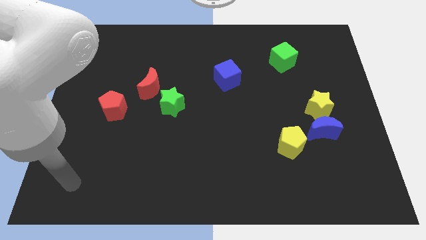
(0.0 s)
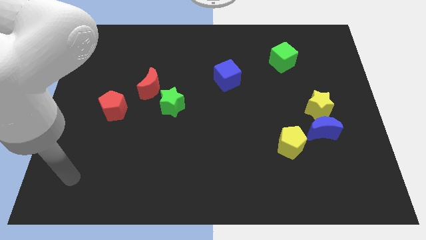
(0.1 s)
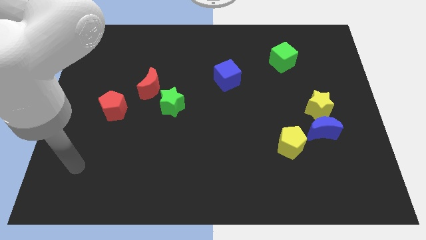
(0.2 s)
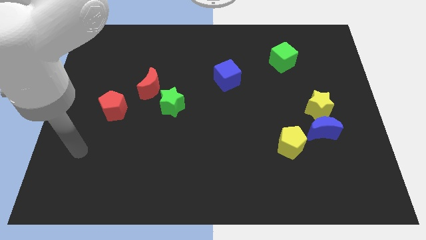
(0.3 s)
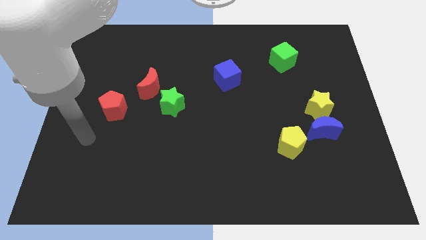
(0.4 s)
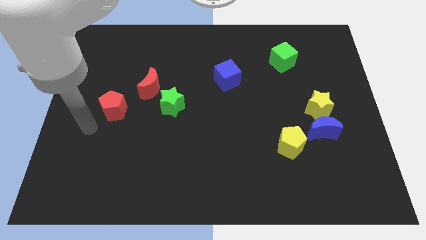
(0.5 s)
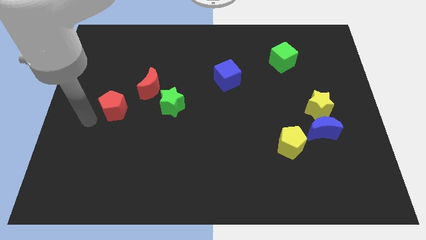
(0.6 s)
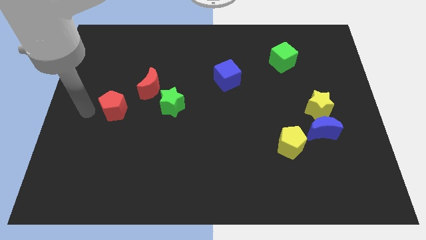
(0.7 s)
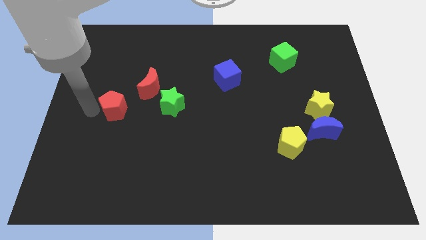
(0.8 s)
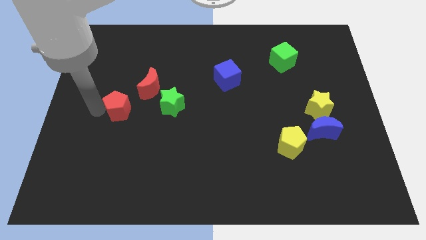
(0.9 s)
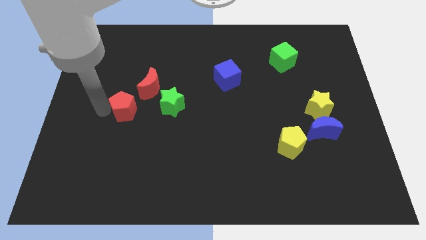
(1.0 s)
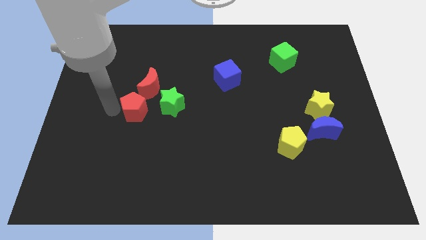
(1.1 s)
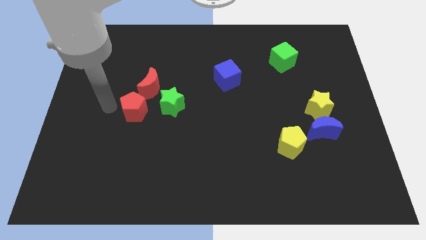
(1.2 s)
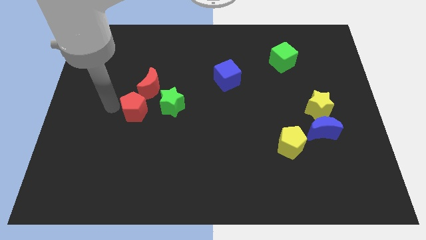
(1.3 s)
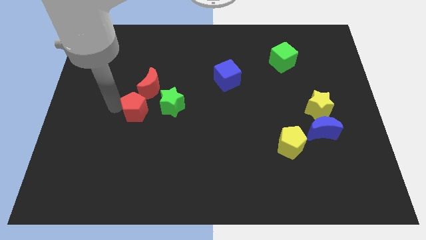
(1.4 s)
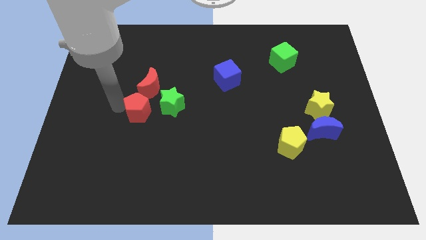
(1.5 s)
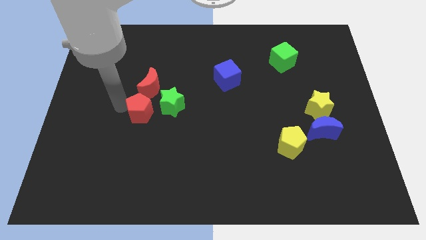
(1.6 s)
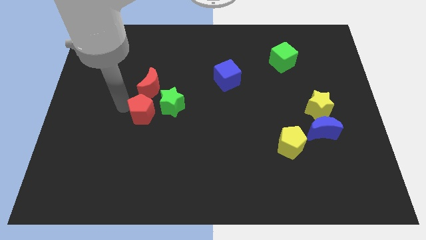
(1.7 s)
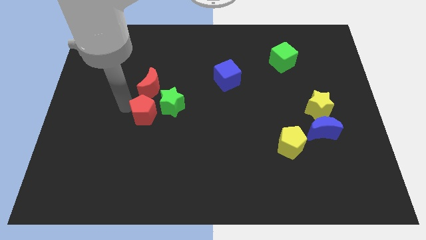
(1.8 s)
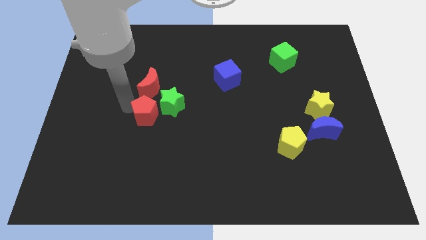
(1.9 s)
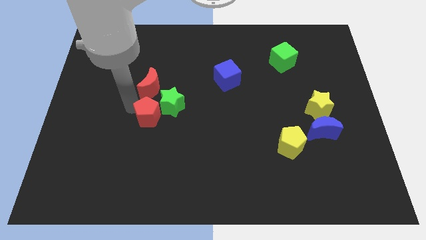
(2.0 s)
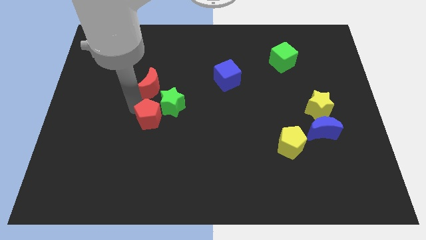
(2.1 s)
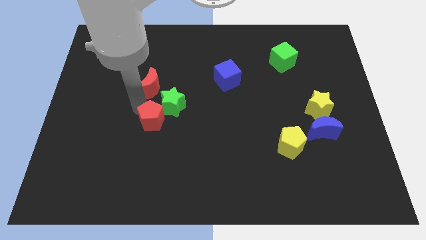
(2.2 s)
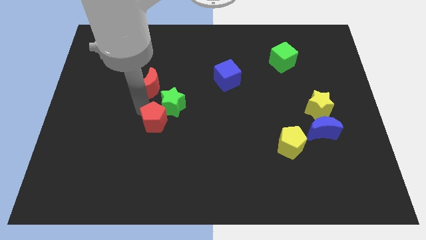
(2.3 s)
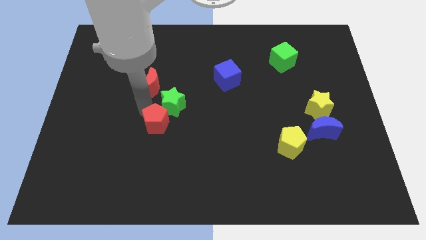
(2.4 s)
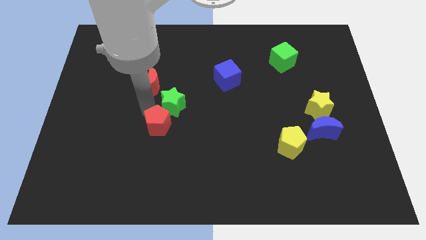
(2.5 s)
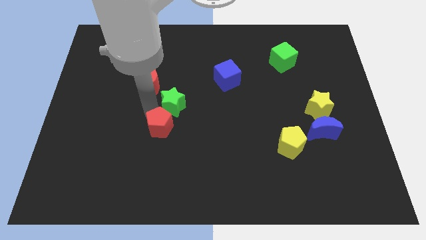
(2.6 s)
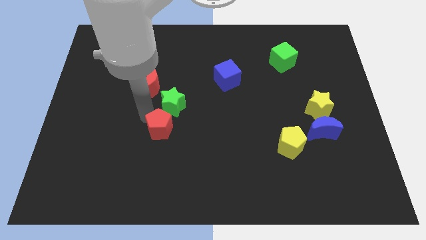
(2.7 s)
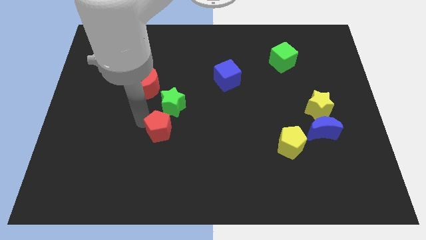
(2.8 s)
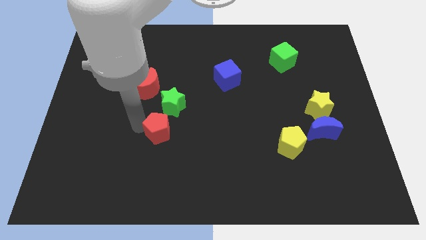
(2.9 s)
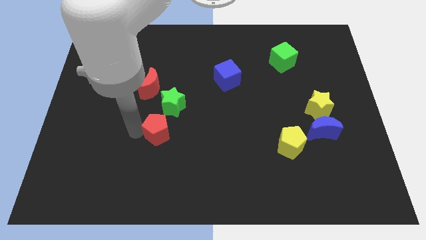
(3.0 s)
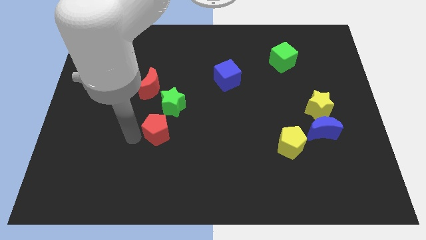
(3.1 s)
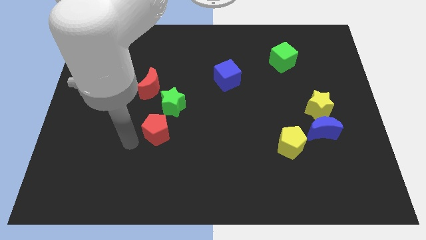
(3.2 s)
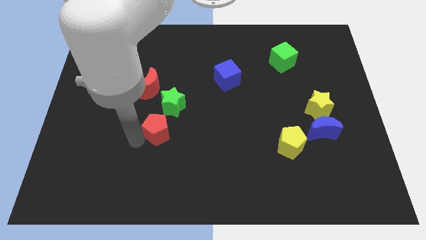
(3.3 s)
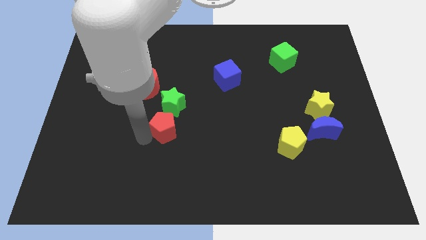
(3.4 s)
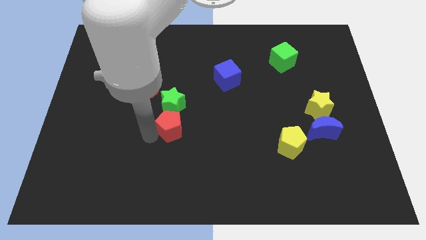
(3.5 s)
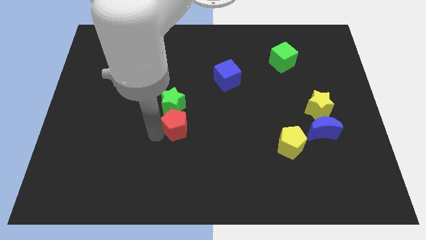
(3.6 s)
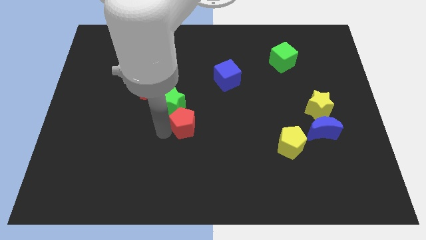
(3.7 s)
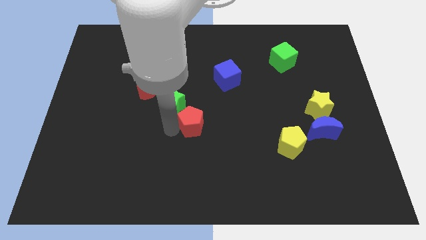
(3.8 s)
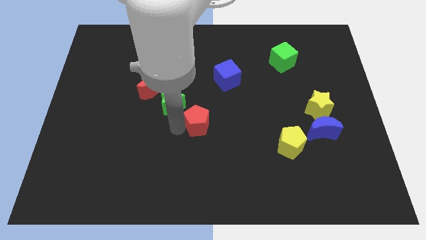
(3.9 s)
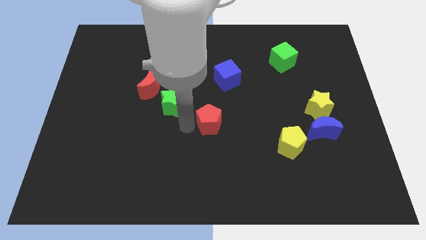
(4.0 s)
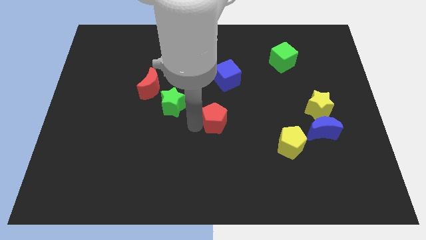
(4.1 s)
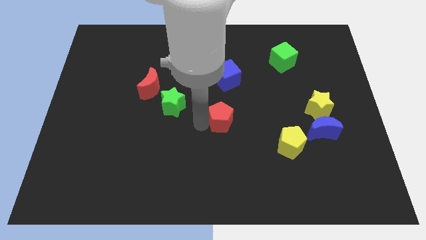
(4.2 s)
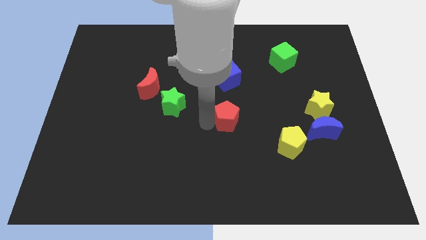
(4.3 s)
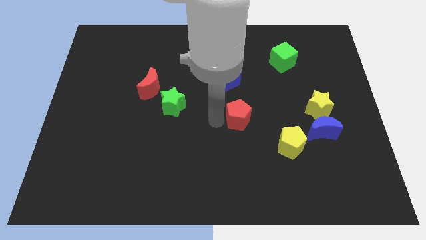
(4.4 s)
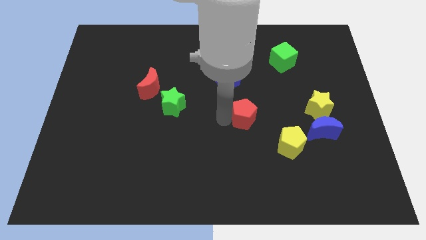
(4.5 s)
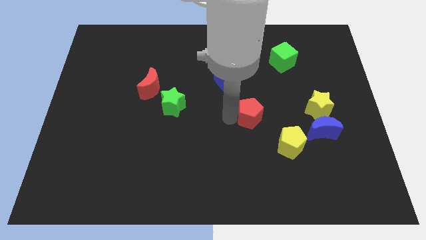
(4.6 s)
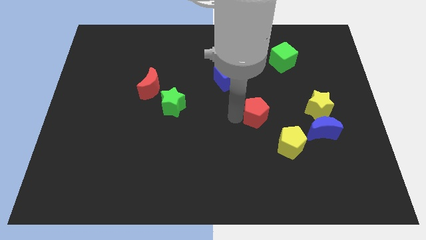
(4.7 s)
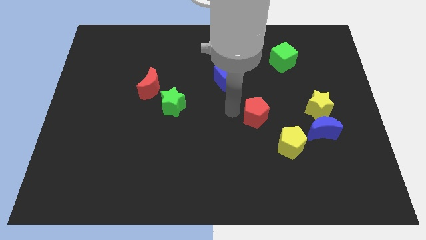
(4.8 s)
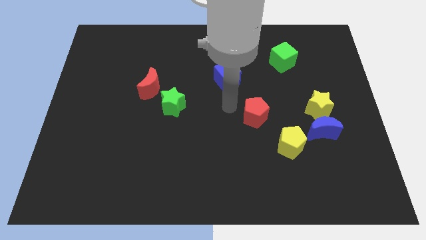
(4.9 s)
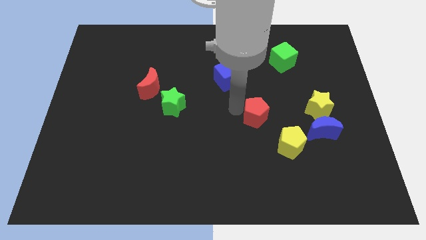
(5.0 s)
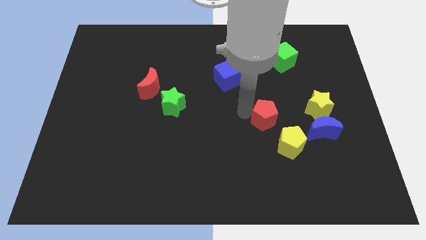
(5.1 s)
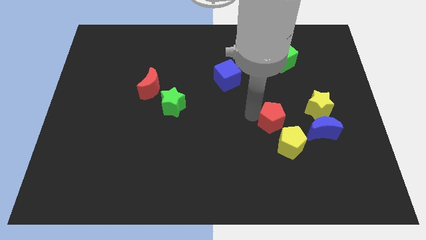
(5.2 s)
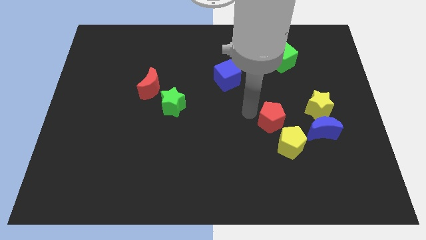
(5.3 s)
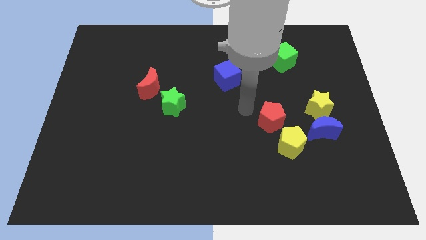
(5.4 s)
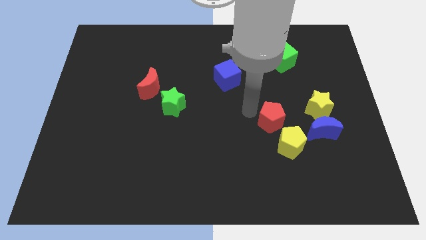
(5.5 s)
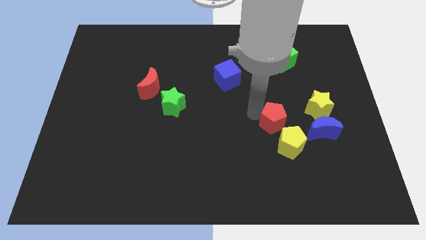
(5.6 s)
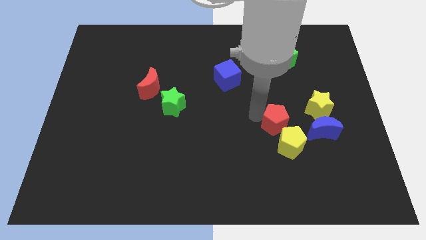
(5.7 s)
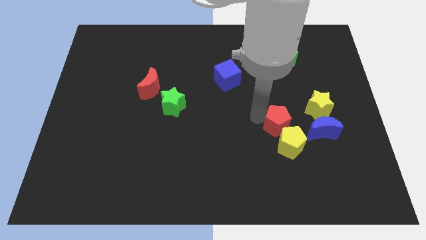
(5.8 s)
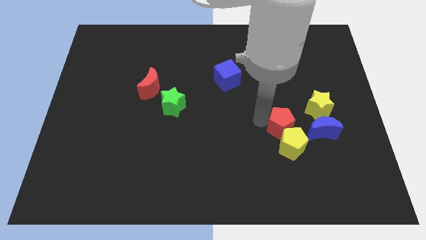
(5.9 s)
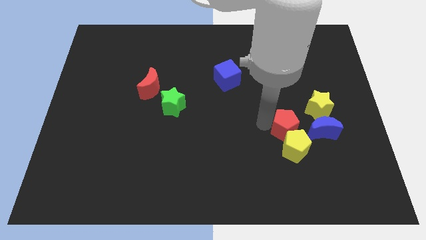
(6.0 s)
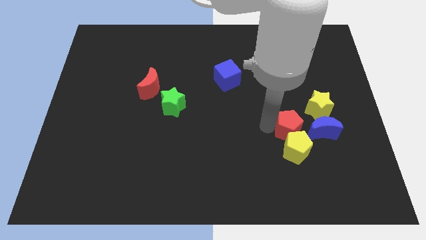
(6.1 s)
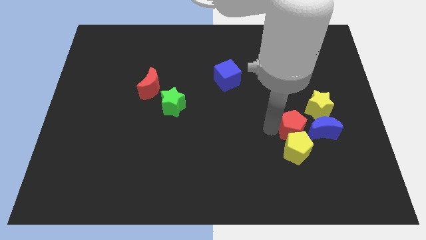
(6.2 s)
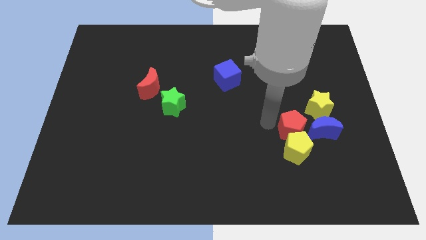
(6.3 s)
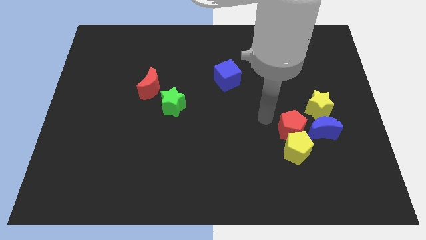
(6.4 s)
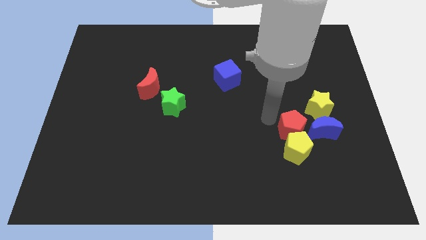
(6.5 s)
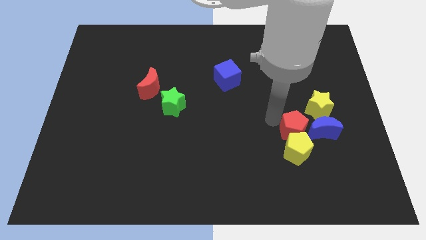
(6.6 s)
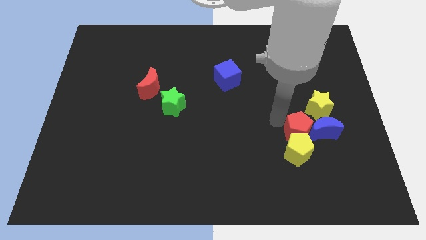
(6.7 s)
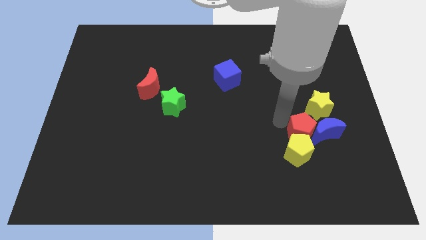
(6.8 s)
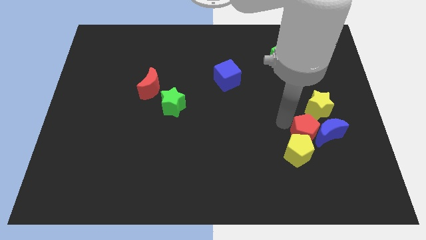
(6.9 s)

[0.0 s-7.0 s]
slide the red pentagon to the bottom side of the yellow star
